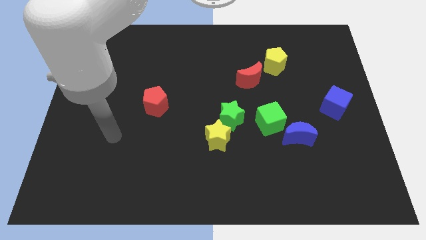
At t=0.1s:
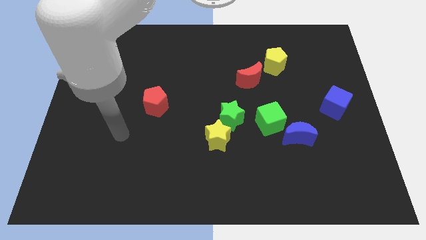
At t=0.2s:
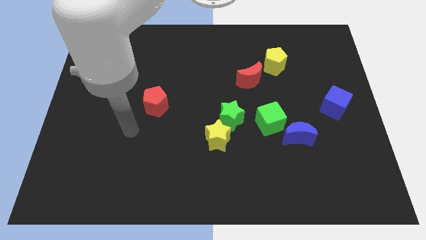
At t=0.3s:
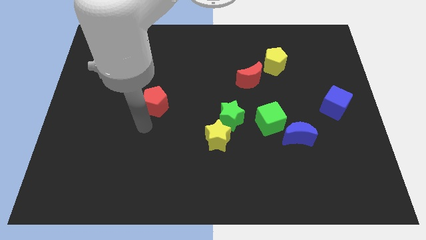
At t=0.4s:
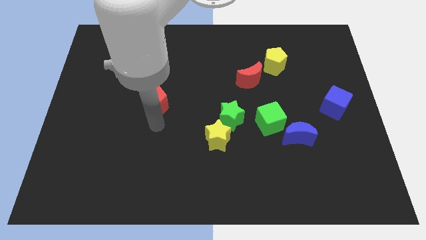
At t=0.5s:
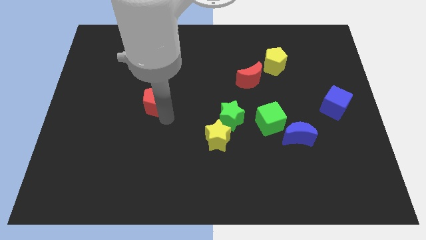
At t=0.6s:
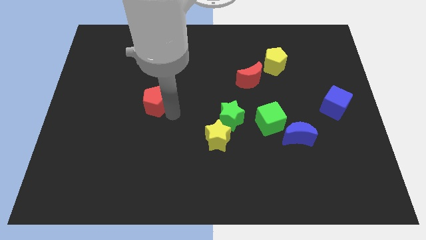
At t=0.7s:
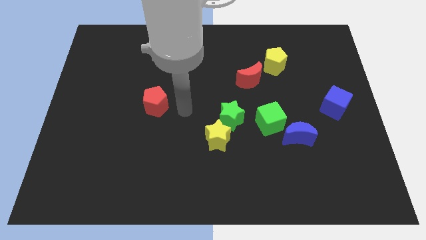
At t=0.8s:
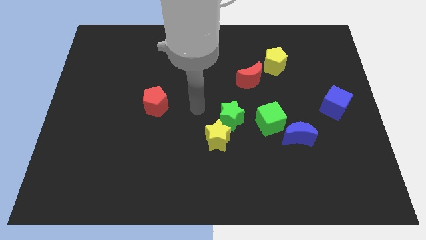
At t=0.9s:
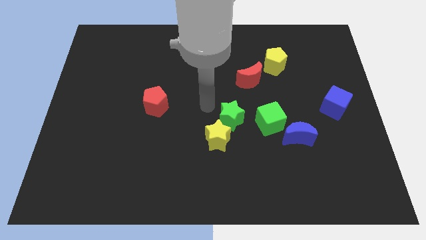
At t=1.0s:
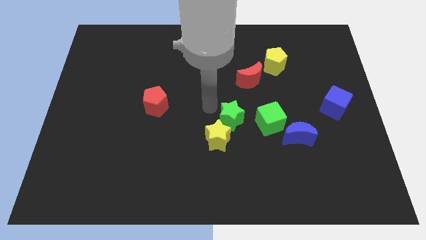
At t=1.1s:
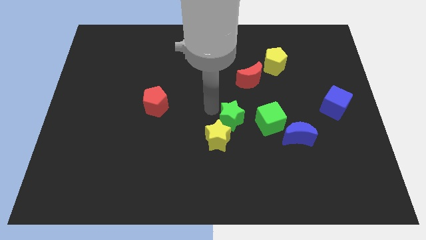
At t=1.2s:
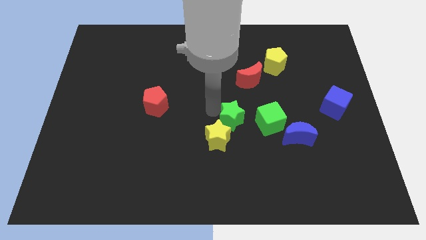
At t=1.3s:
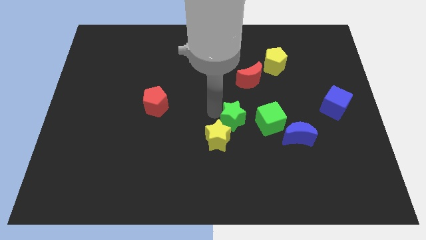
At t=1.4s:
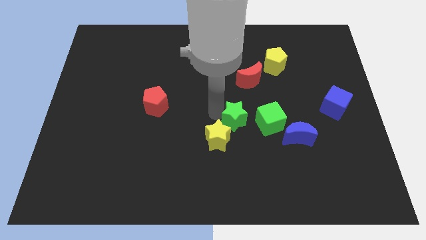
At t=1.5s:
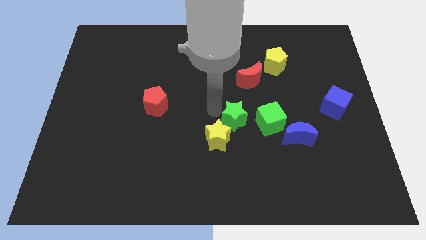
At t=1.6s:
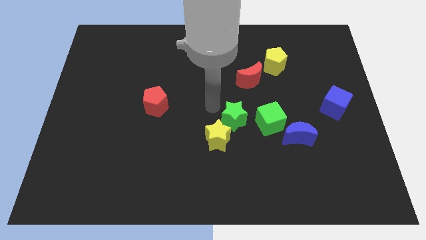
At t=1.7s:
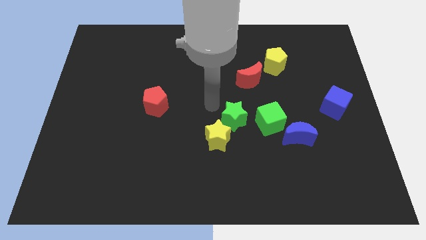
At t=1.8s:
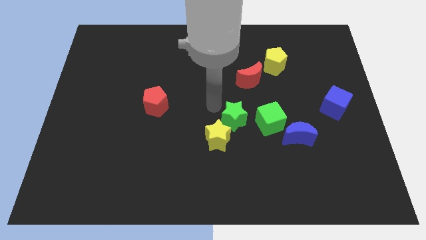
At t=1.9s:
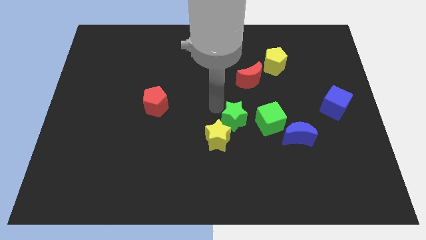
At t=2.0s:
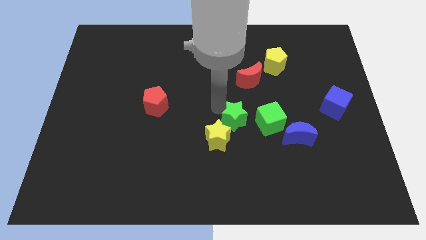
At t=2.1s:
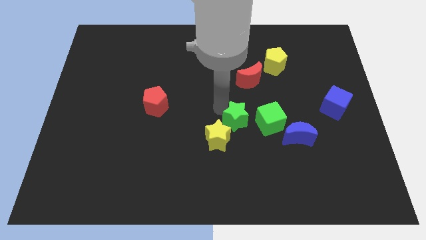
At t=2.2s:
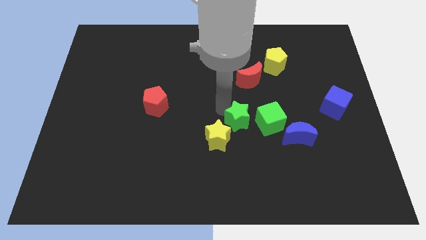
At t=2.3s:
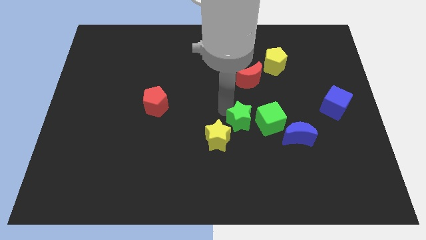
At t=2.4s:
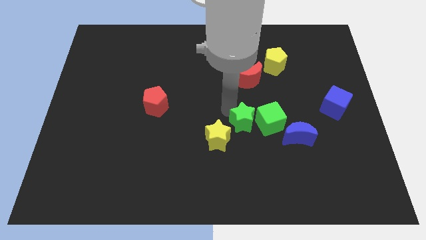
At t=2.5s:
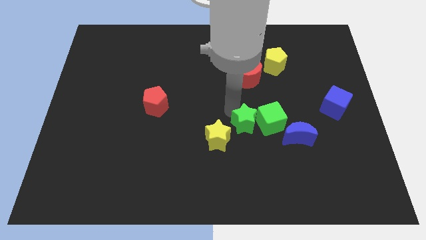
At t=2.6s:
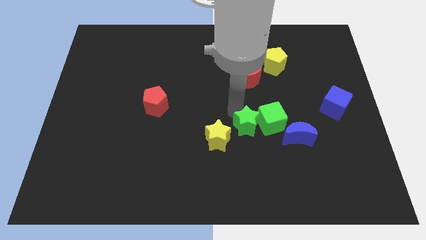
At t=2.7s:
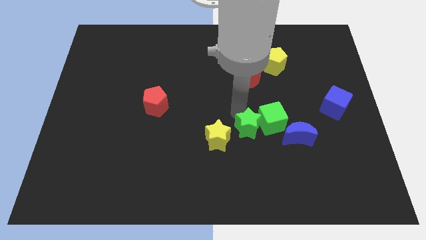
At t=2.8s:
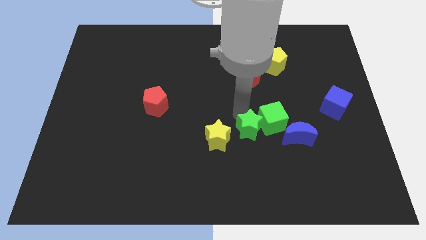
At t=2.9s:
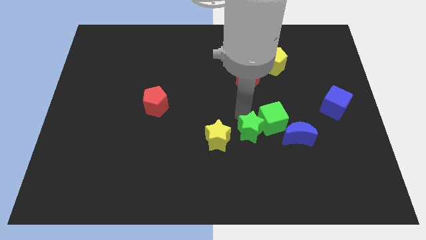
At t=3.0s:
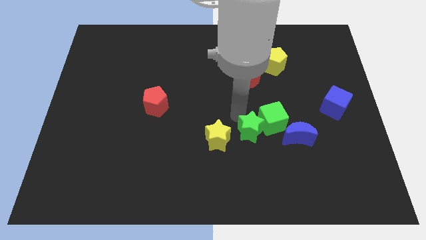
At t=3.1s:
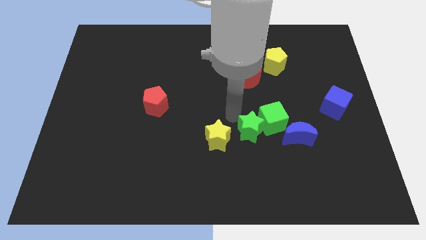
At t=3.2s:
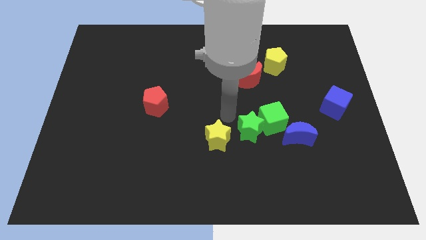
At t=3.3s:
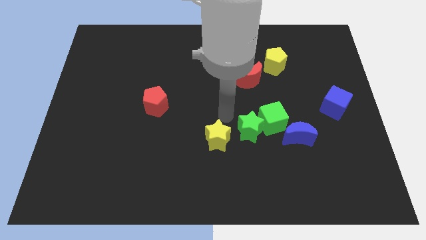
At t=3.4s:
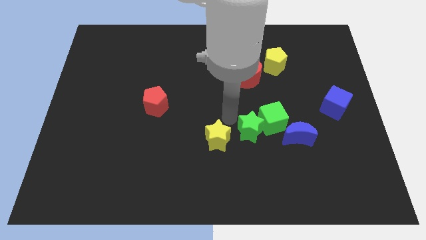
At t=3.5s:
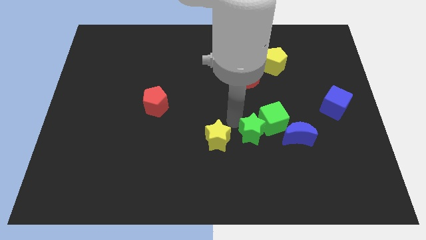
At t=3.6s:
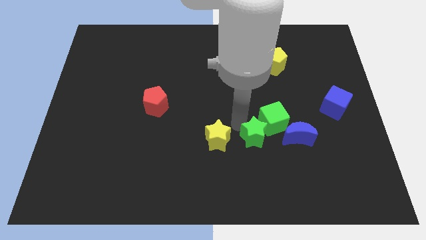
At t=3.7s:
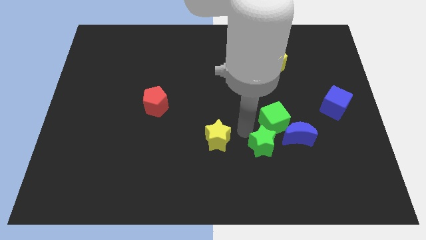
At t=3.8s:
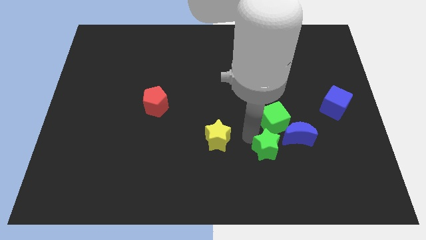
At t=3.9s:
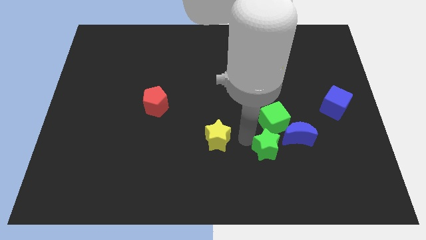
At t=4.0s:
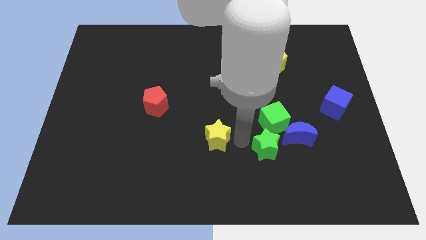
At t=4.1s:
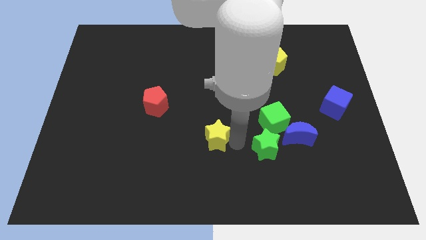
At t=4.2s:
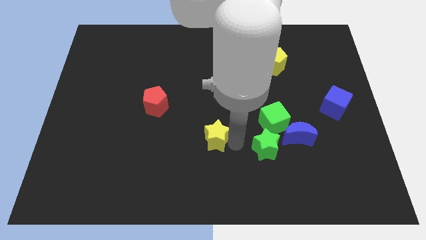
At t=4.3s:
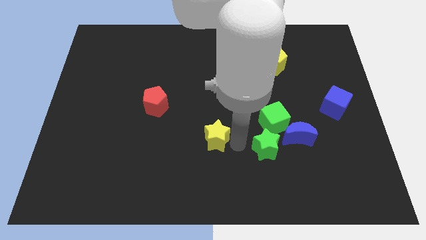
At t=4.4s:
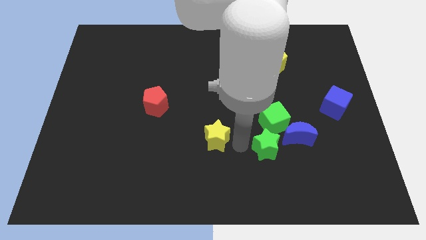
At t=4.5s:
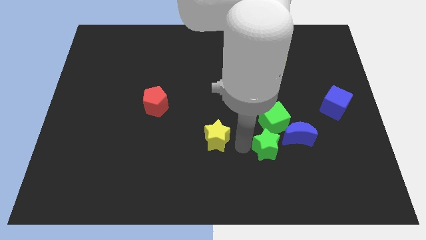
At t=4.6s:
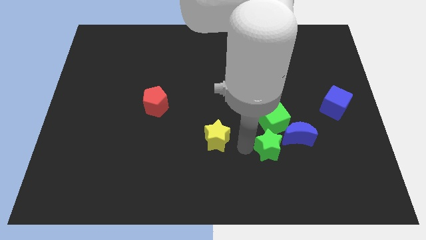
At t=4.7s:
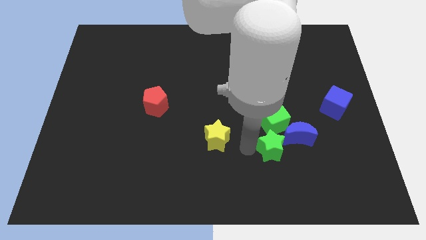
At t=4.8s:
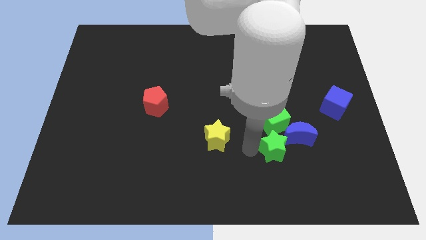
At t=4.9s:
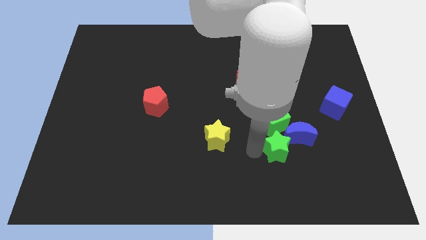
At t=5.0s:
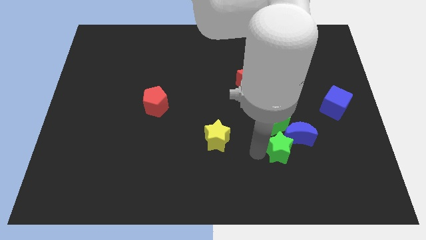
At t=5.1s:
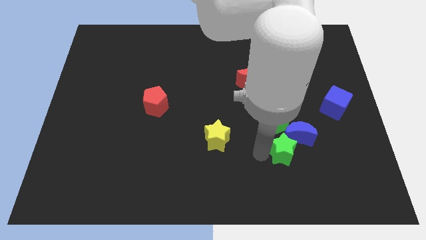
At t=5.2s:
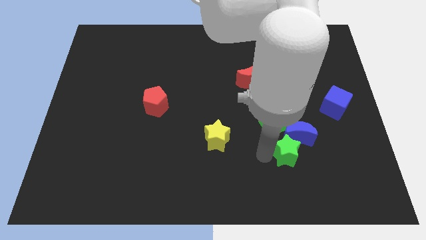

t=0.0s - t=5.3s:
move the green star diagonally down and to the right of the green cube

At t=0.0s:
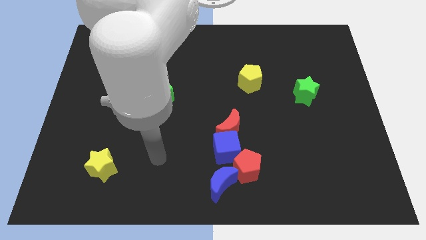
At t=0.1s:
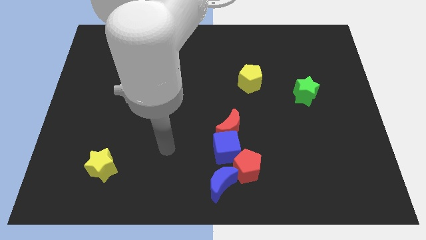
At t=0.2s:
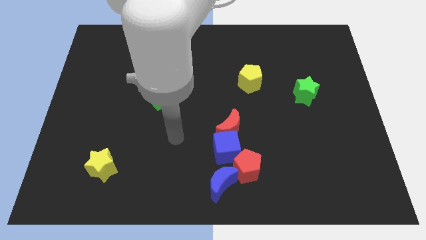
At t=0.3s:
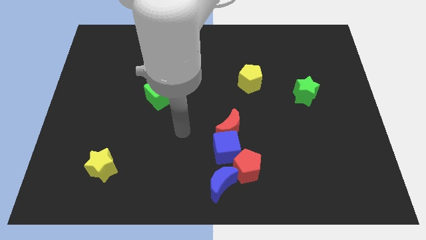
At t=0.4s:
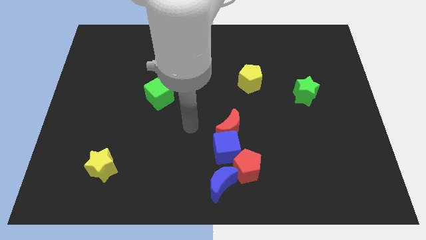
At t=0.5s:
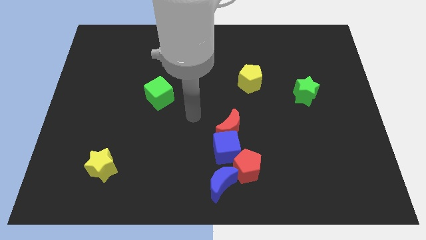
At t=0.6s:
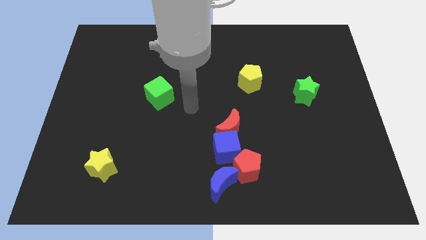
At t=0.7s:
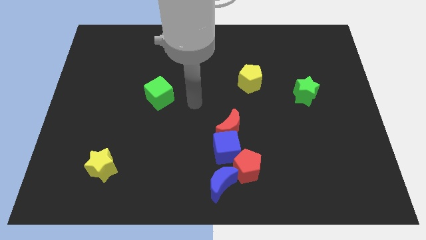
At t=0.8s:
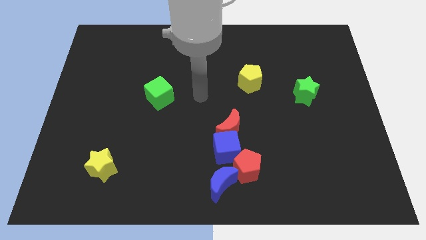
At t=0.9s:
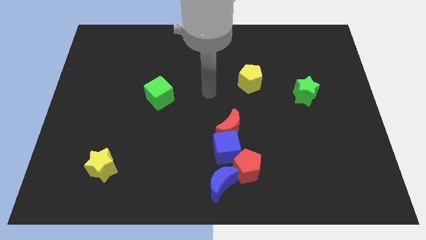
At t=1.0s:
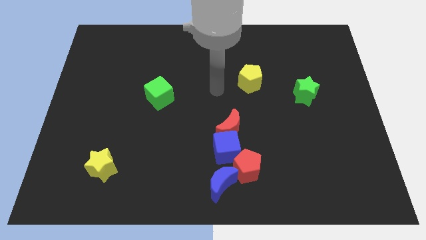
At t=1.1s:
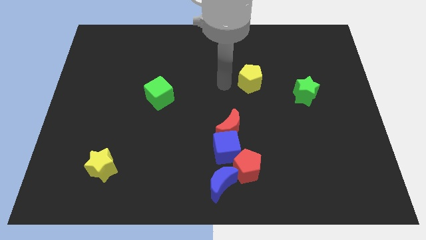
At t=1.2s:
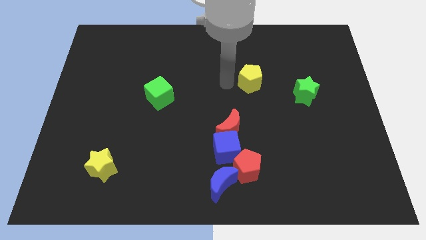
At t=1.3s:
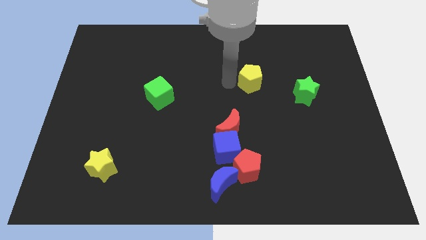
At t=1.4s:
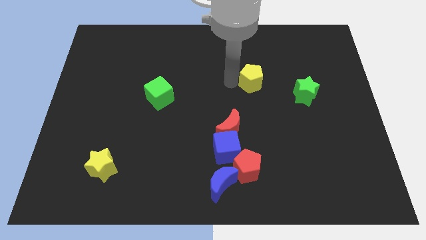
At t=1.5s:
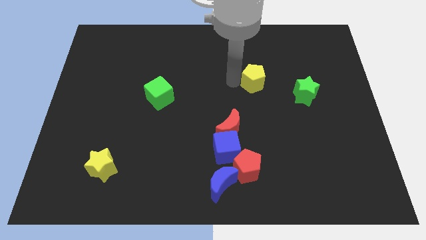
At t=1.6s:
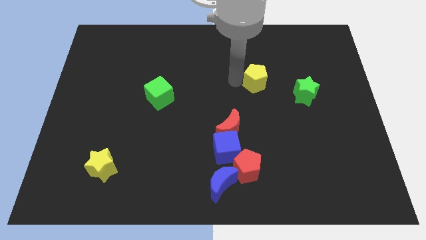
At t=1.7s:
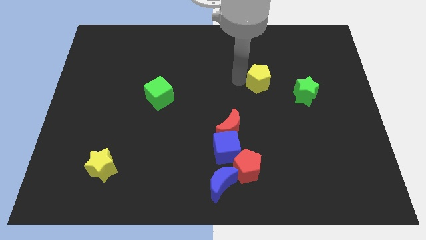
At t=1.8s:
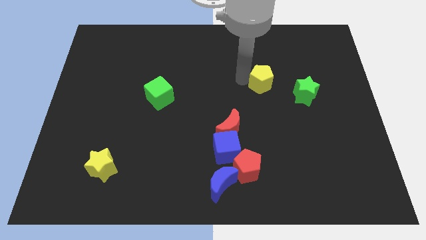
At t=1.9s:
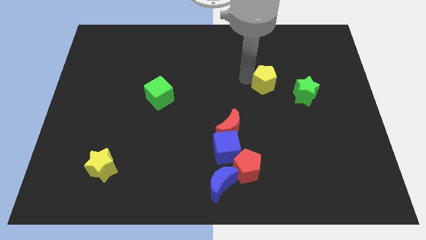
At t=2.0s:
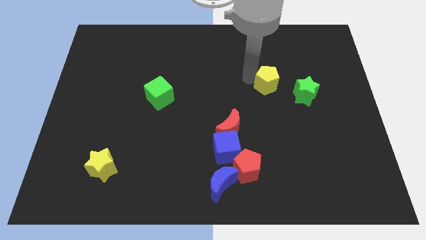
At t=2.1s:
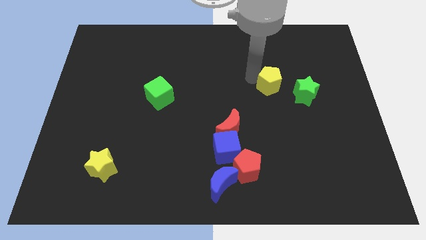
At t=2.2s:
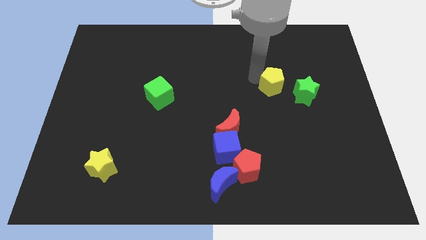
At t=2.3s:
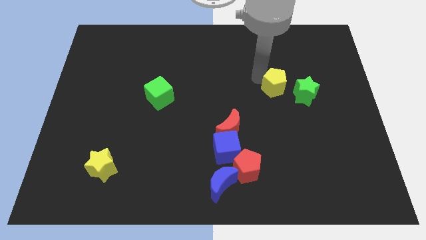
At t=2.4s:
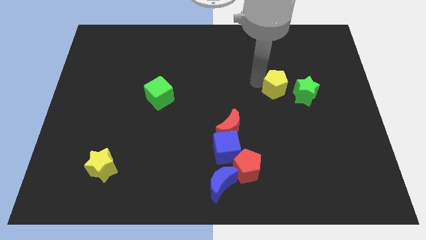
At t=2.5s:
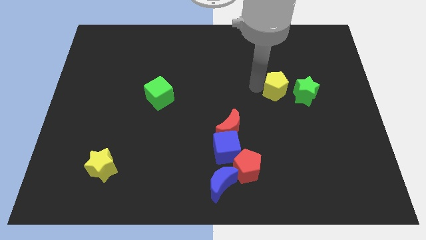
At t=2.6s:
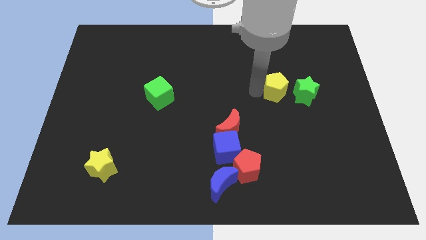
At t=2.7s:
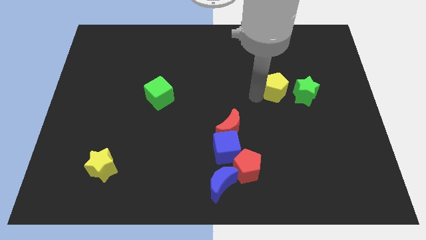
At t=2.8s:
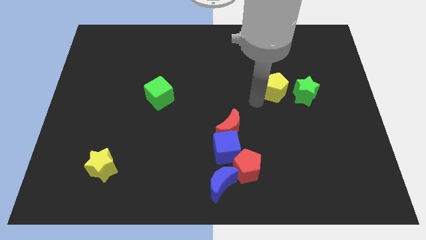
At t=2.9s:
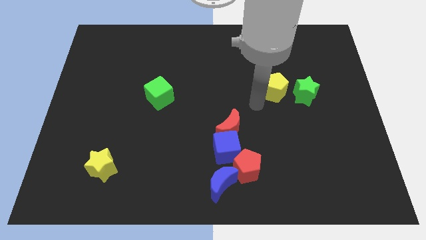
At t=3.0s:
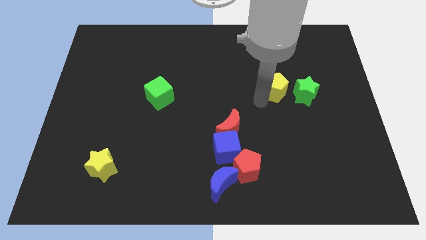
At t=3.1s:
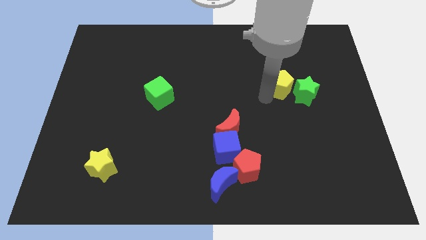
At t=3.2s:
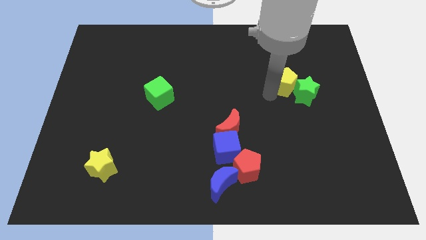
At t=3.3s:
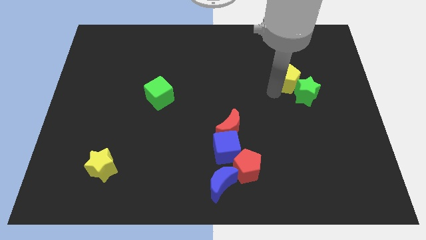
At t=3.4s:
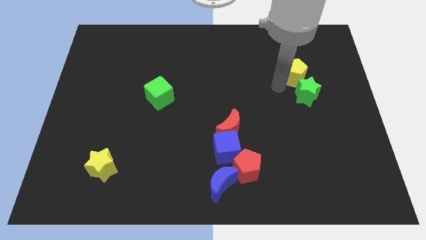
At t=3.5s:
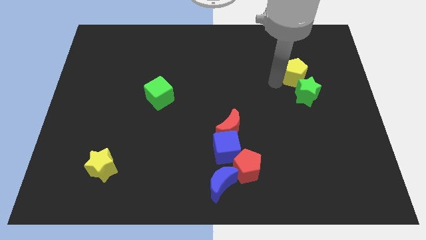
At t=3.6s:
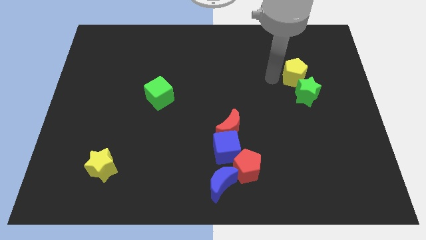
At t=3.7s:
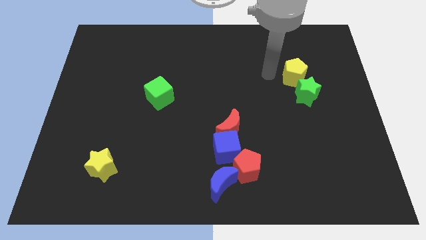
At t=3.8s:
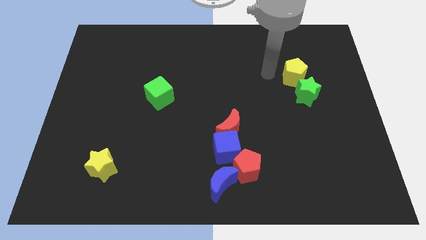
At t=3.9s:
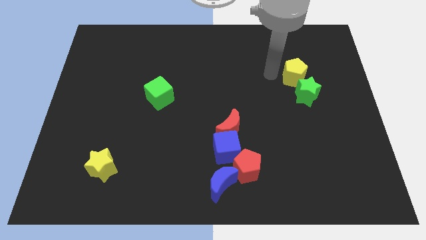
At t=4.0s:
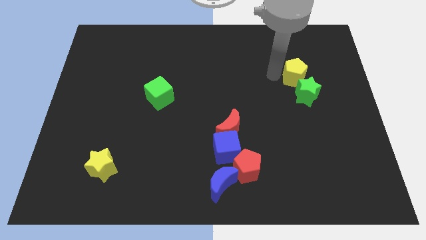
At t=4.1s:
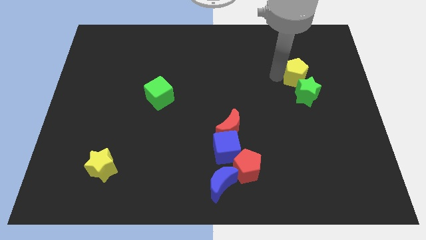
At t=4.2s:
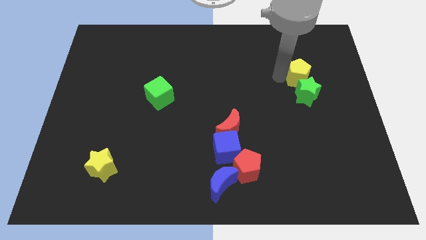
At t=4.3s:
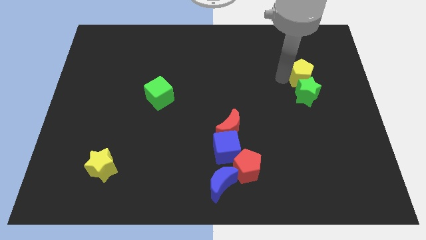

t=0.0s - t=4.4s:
move the yellow pentagon to the top right of the green star
